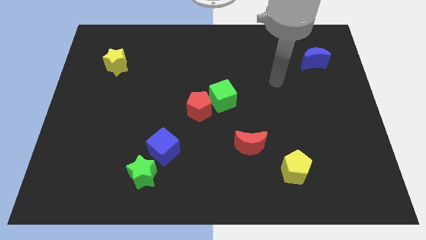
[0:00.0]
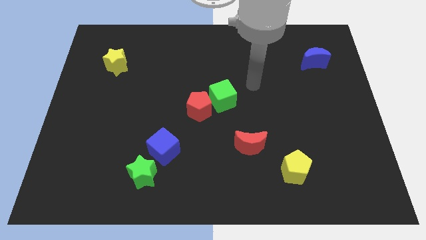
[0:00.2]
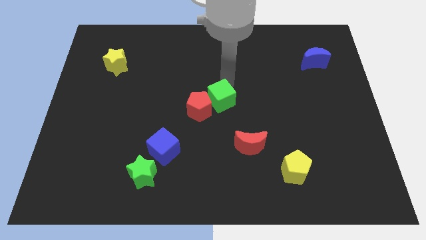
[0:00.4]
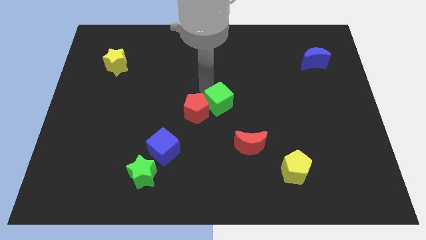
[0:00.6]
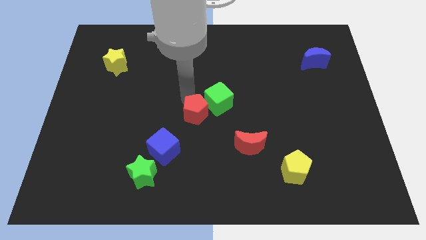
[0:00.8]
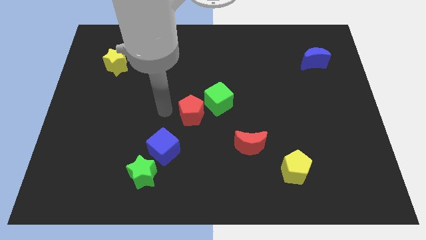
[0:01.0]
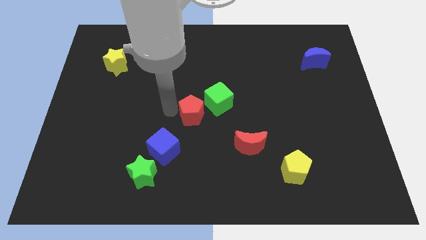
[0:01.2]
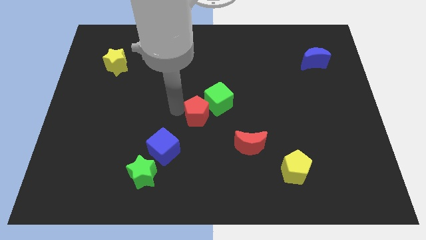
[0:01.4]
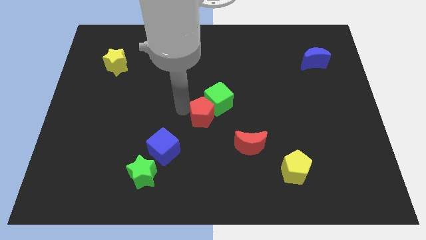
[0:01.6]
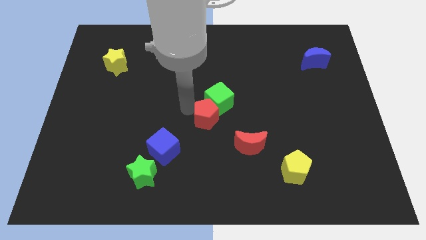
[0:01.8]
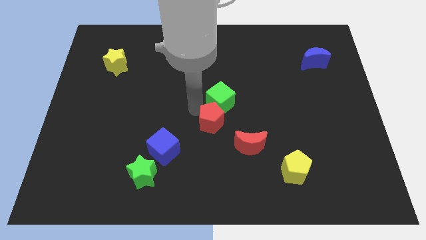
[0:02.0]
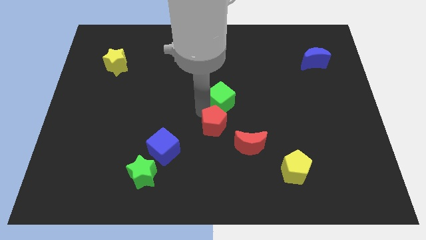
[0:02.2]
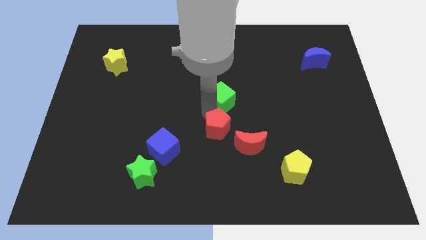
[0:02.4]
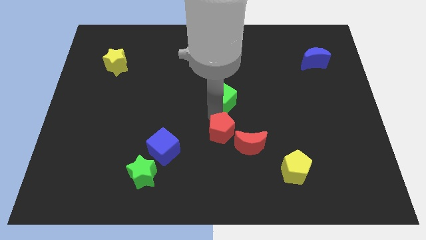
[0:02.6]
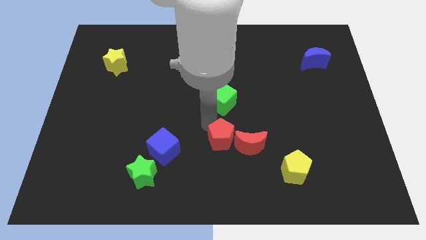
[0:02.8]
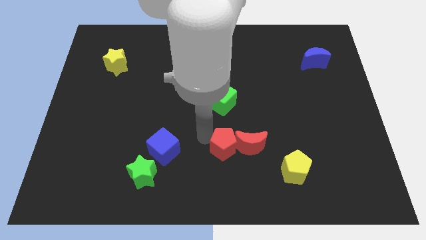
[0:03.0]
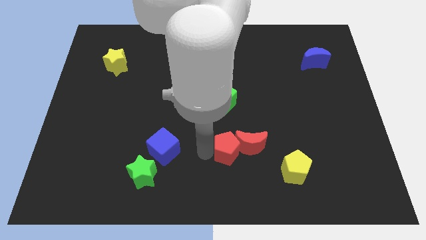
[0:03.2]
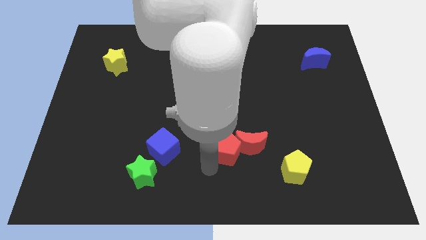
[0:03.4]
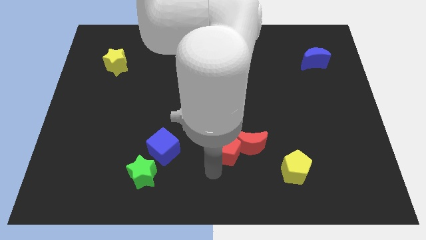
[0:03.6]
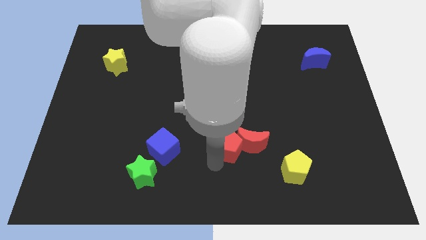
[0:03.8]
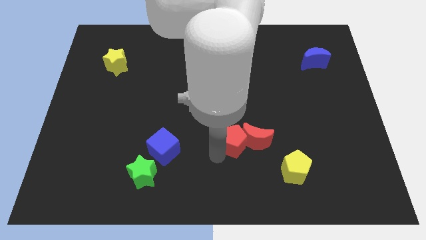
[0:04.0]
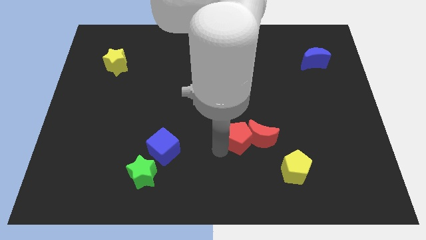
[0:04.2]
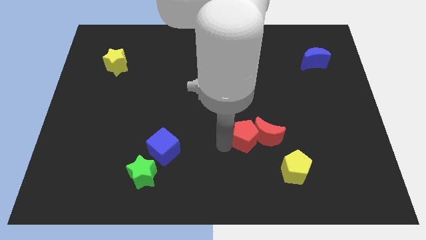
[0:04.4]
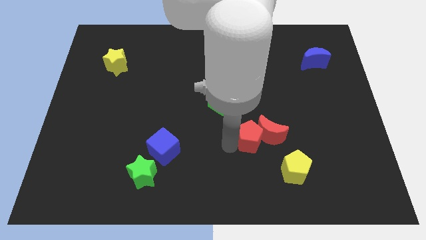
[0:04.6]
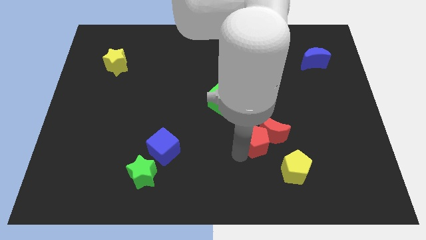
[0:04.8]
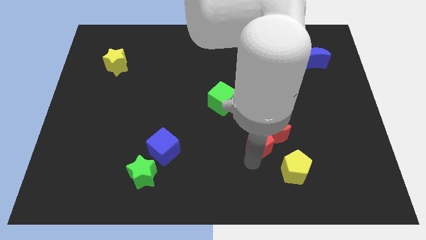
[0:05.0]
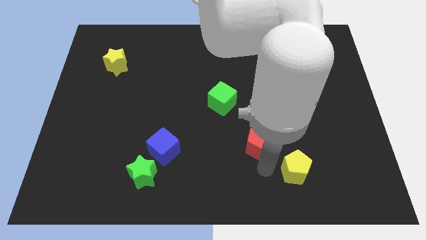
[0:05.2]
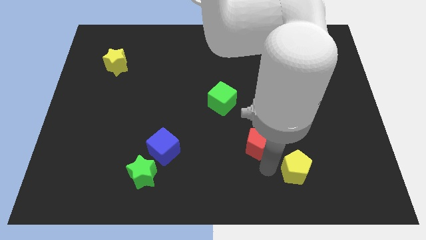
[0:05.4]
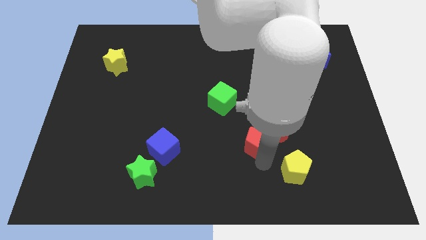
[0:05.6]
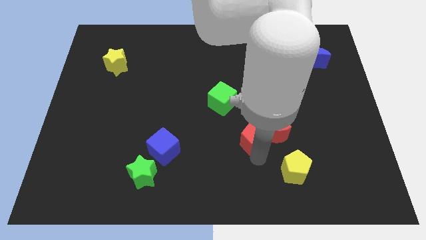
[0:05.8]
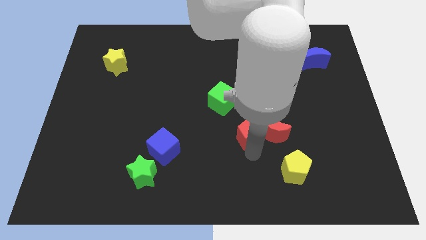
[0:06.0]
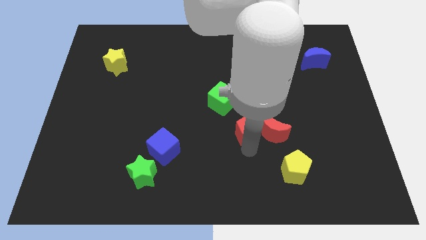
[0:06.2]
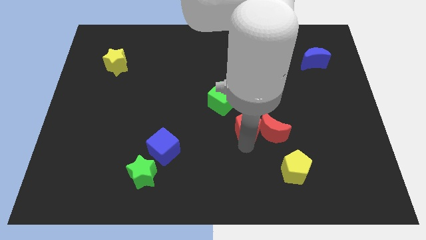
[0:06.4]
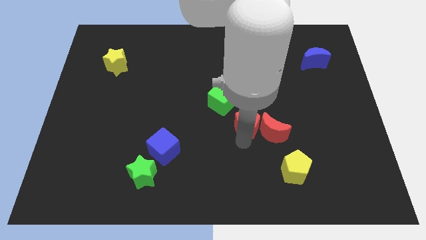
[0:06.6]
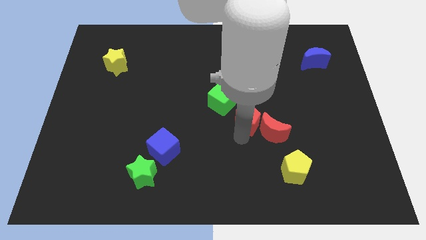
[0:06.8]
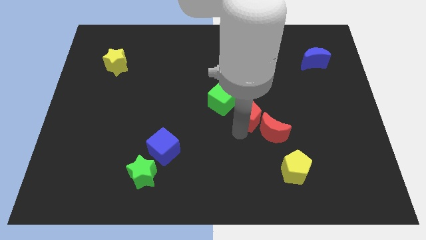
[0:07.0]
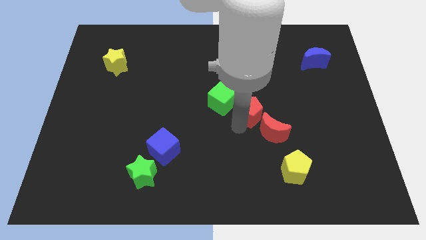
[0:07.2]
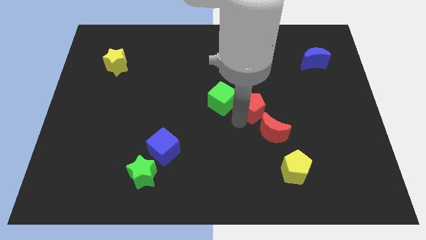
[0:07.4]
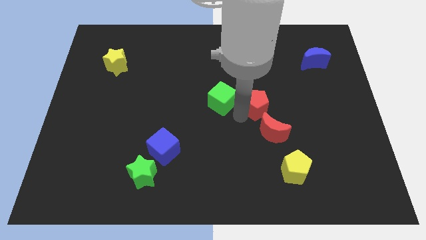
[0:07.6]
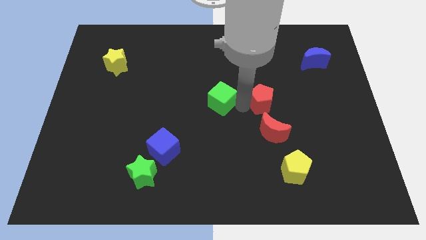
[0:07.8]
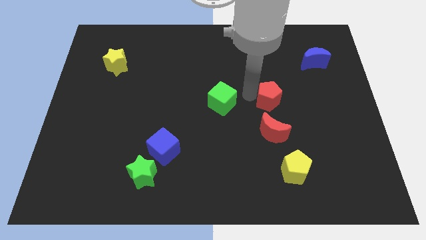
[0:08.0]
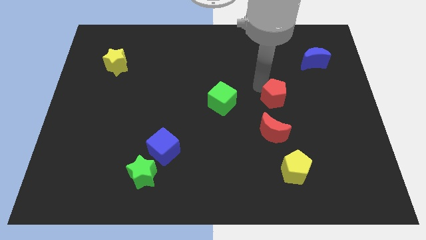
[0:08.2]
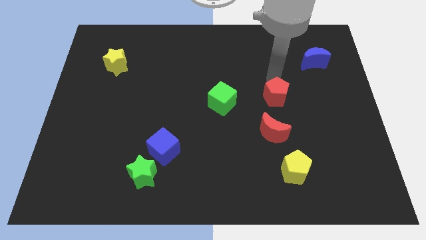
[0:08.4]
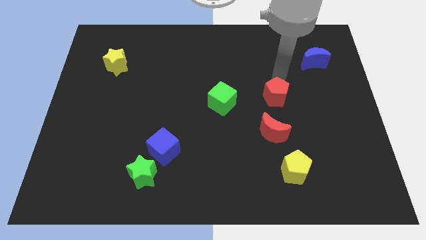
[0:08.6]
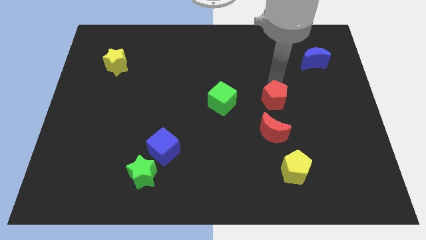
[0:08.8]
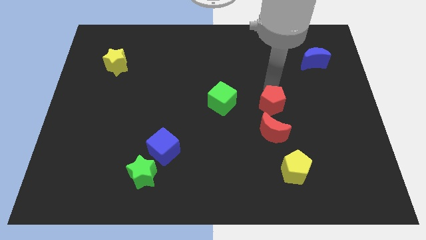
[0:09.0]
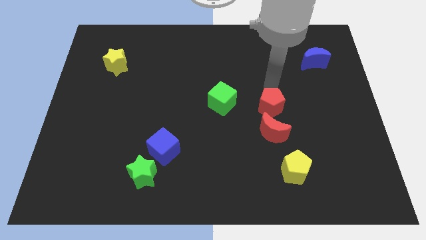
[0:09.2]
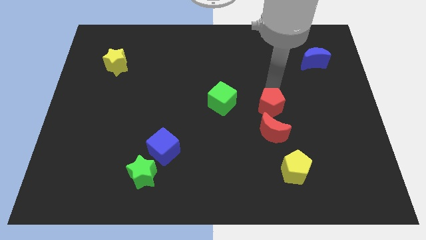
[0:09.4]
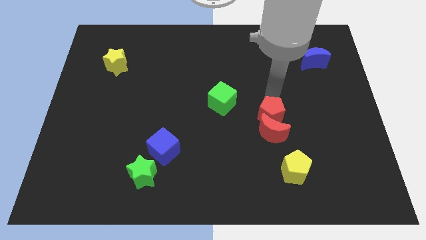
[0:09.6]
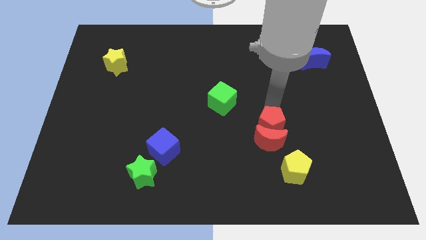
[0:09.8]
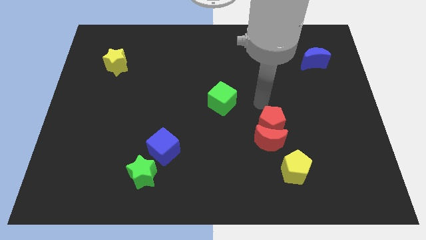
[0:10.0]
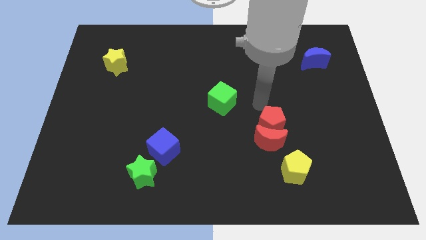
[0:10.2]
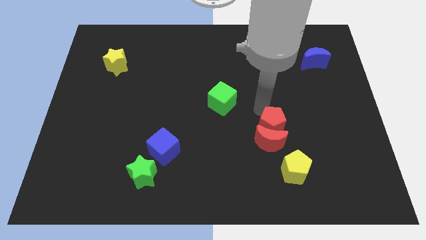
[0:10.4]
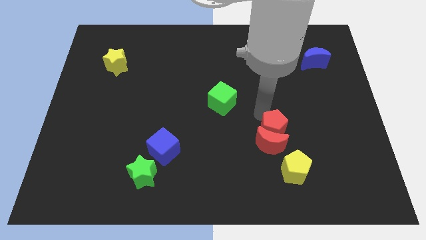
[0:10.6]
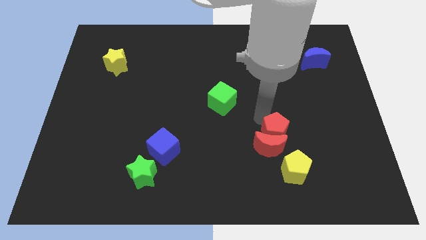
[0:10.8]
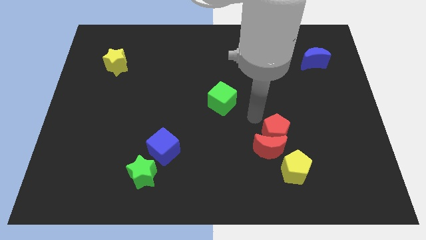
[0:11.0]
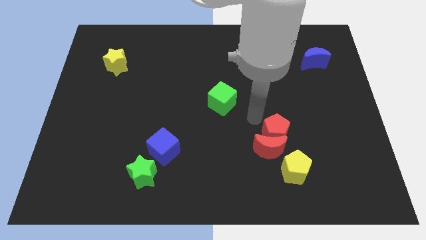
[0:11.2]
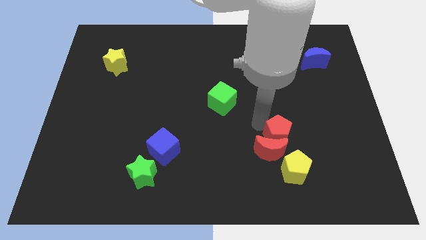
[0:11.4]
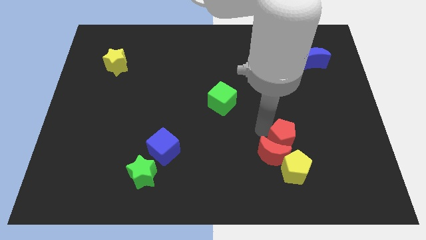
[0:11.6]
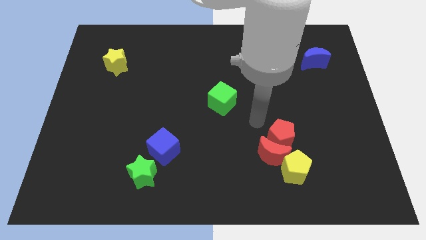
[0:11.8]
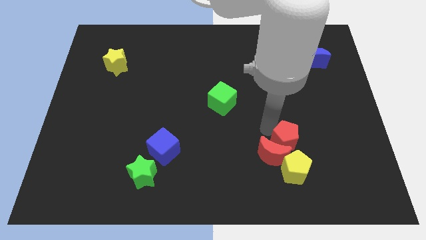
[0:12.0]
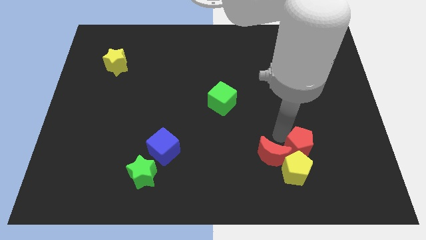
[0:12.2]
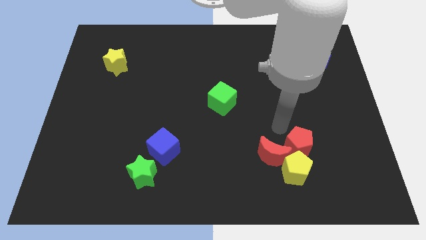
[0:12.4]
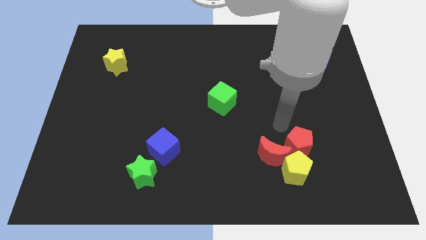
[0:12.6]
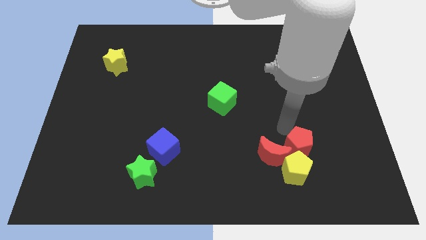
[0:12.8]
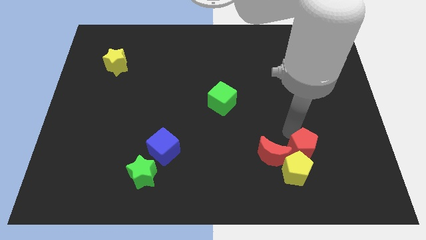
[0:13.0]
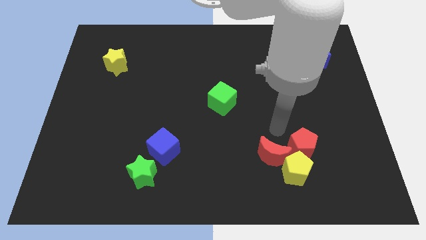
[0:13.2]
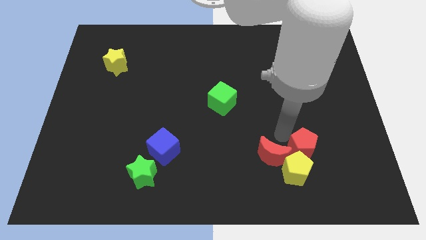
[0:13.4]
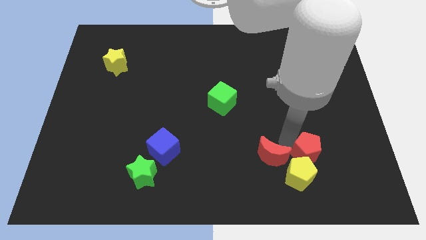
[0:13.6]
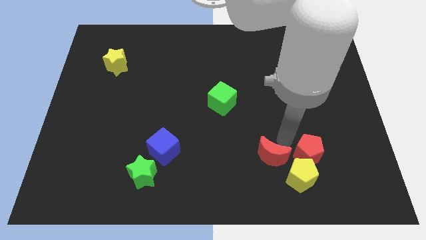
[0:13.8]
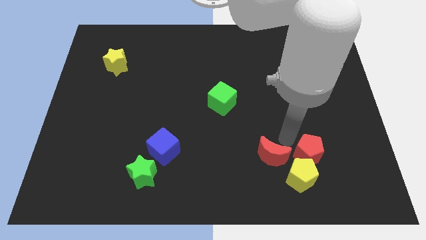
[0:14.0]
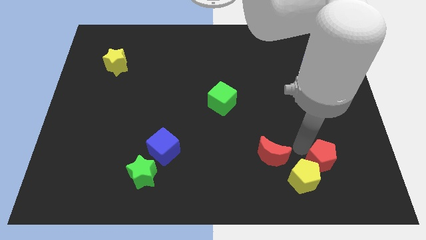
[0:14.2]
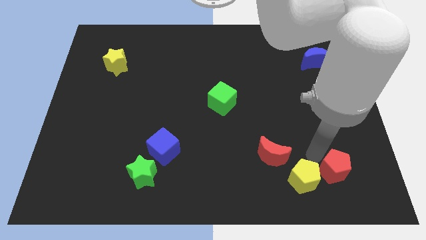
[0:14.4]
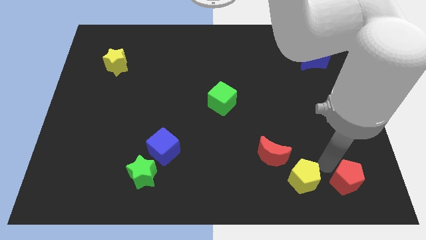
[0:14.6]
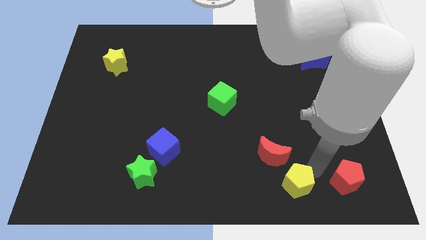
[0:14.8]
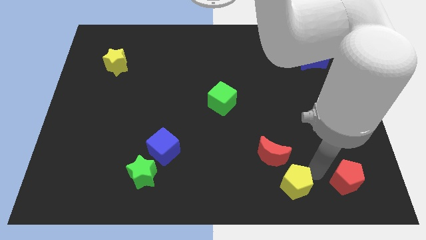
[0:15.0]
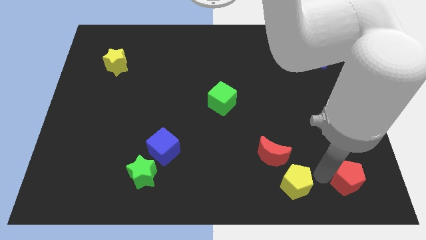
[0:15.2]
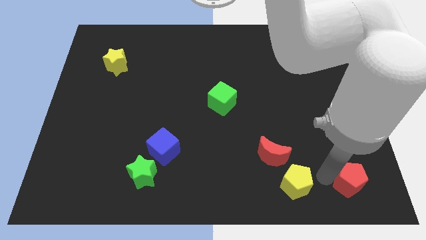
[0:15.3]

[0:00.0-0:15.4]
put the red pentagon to the bottom right corner
